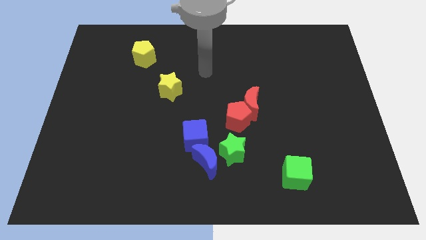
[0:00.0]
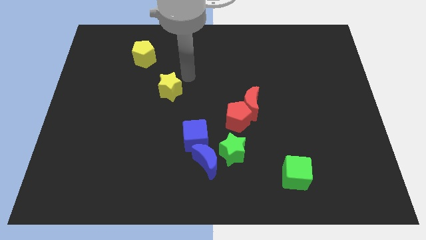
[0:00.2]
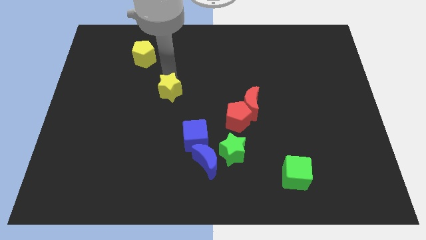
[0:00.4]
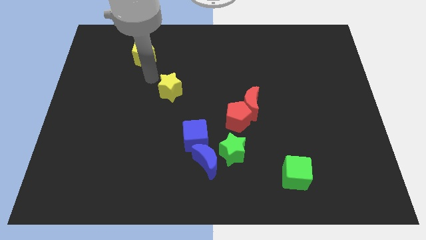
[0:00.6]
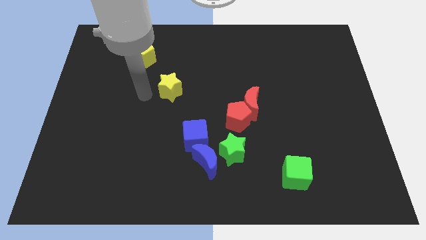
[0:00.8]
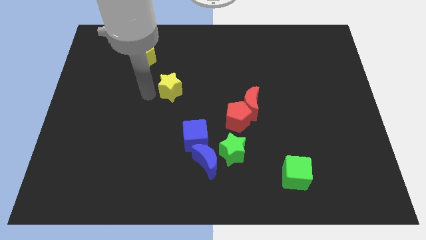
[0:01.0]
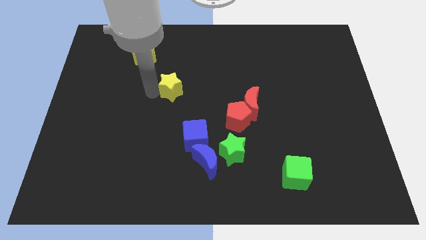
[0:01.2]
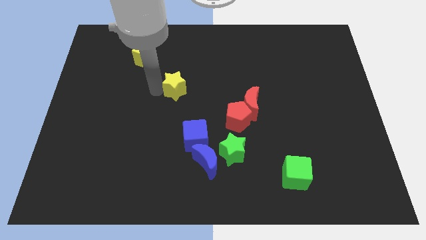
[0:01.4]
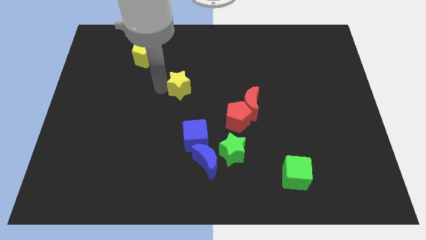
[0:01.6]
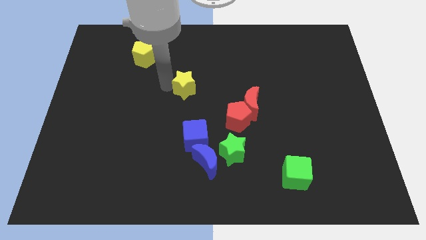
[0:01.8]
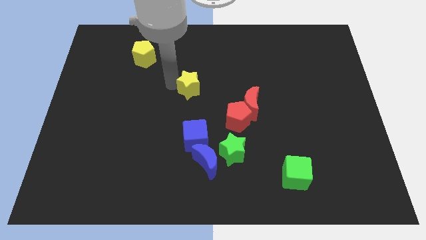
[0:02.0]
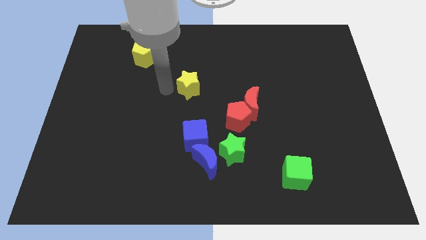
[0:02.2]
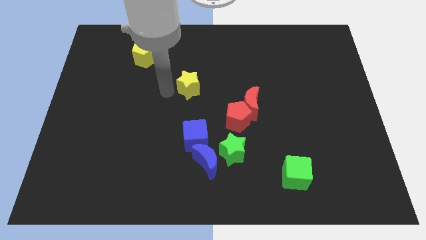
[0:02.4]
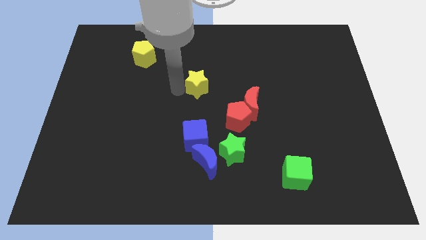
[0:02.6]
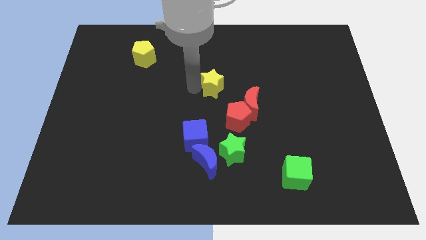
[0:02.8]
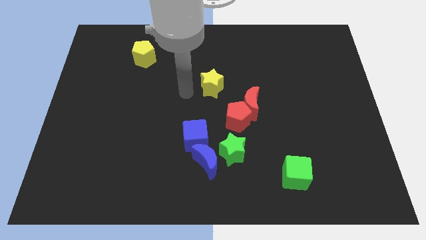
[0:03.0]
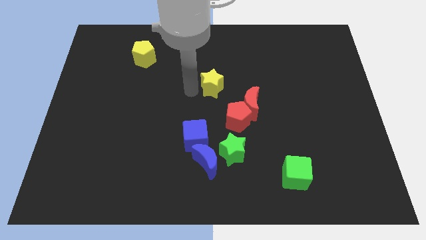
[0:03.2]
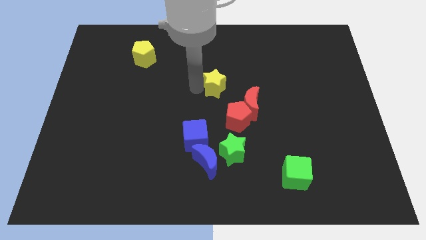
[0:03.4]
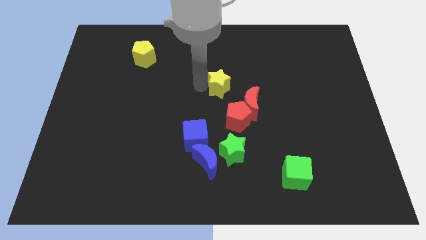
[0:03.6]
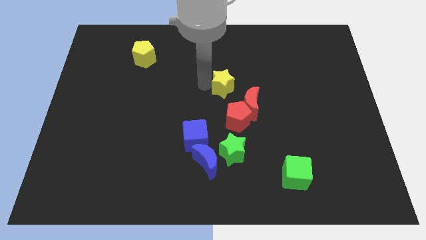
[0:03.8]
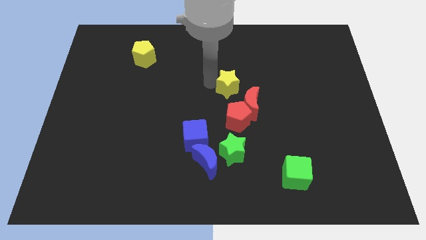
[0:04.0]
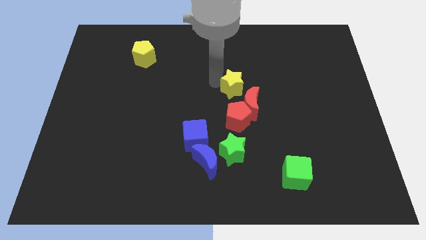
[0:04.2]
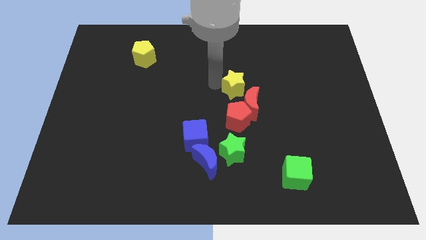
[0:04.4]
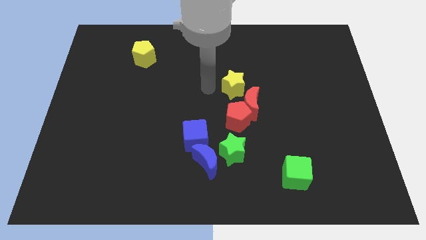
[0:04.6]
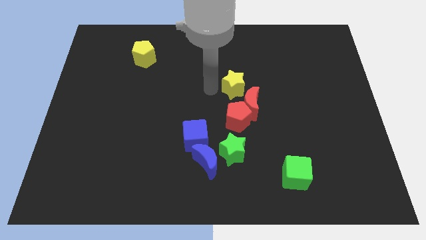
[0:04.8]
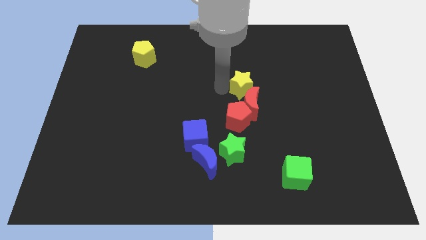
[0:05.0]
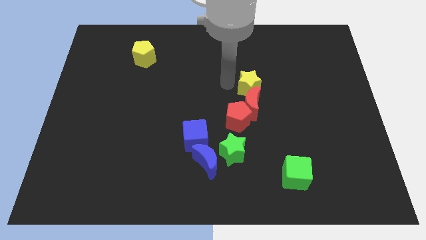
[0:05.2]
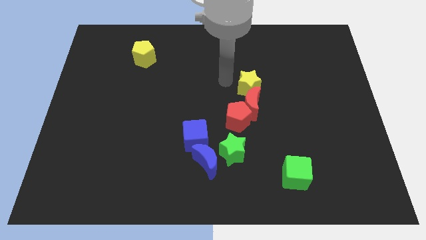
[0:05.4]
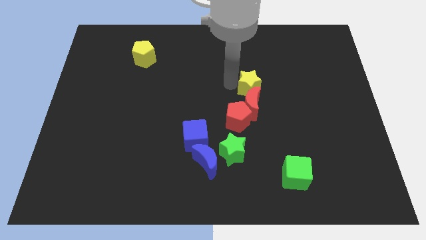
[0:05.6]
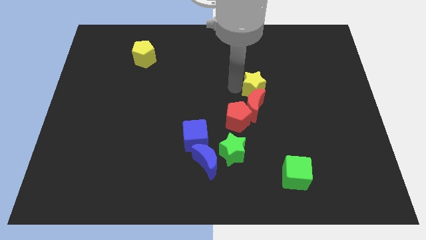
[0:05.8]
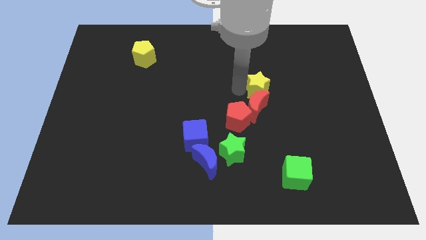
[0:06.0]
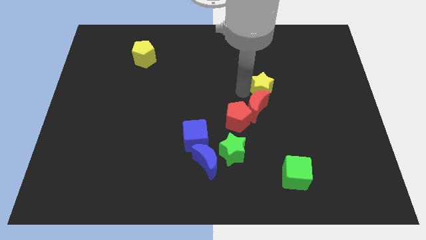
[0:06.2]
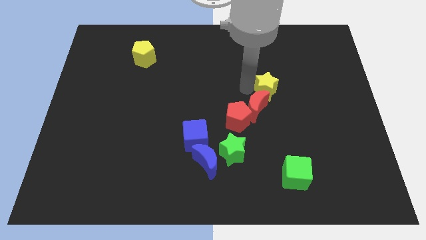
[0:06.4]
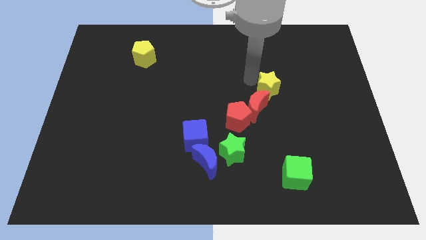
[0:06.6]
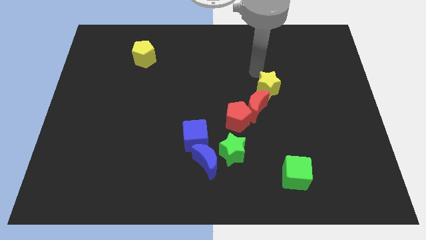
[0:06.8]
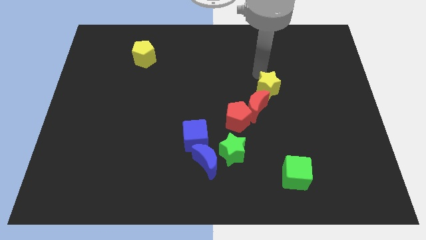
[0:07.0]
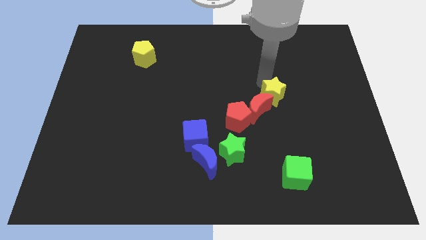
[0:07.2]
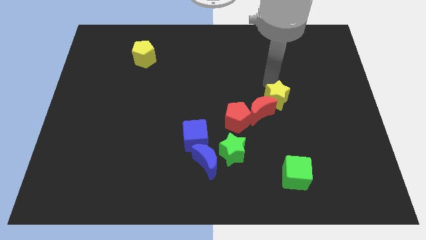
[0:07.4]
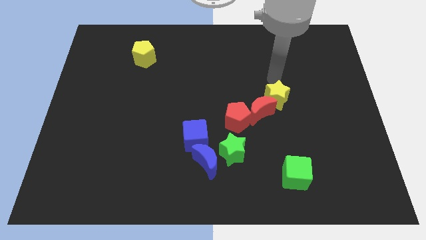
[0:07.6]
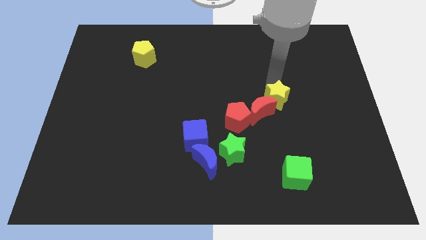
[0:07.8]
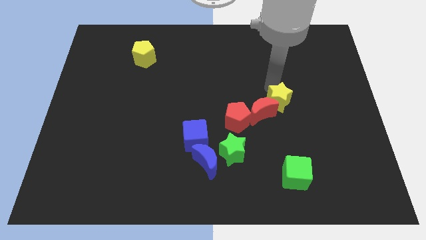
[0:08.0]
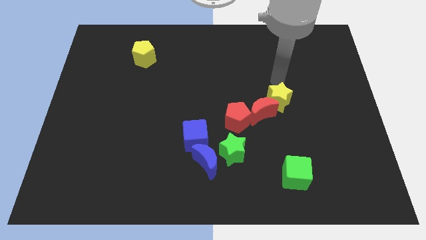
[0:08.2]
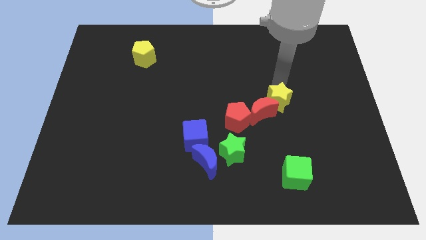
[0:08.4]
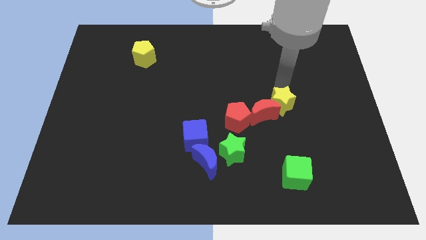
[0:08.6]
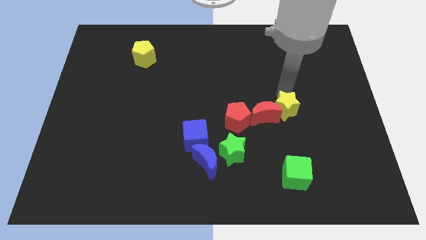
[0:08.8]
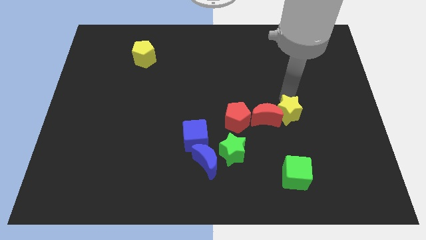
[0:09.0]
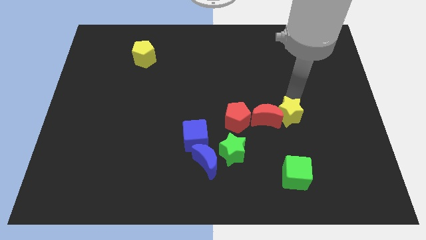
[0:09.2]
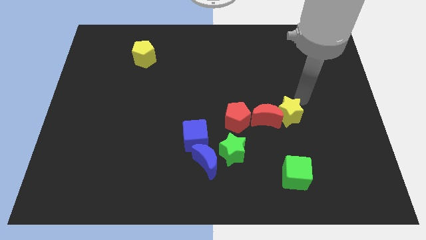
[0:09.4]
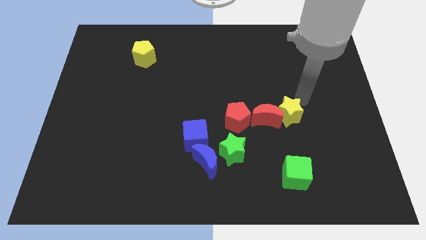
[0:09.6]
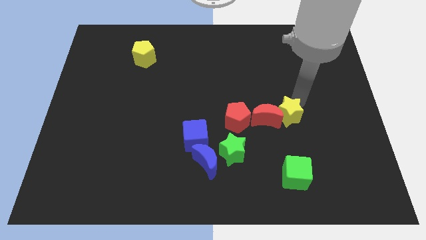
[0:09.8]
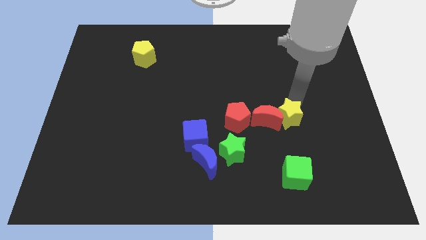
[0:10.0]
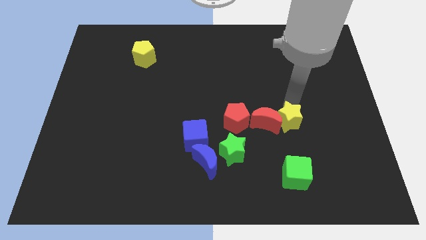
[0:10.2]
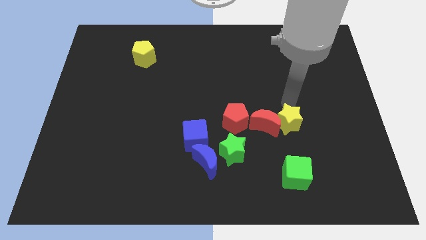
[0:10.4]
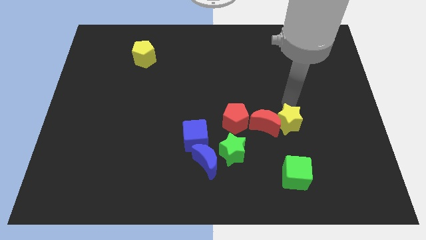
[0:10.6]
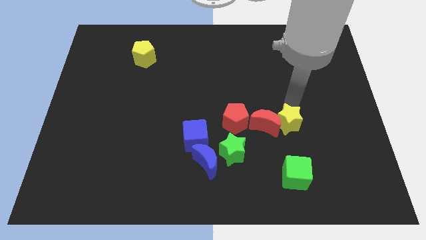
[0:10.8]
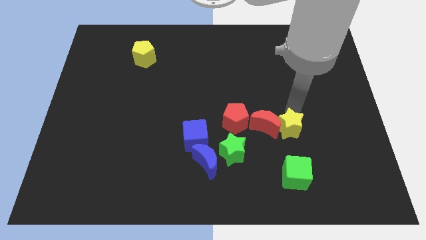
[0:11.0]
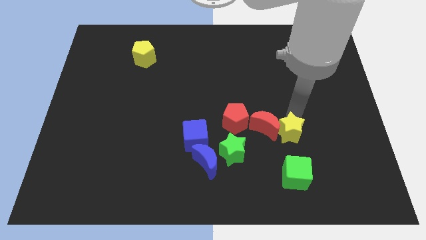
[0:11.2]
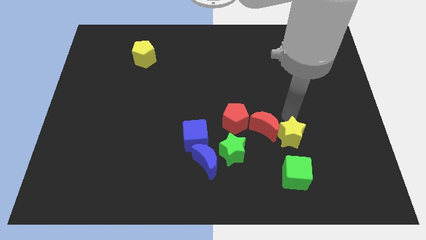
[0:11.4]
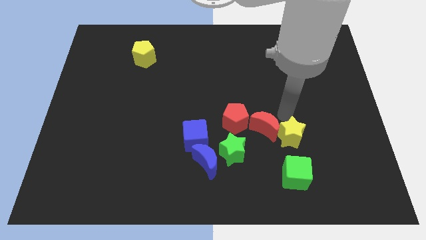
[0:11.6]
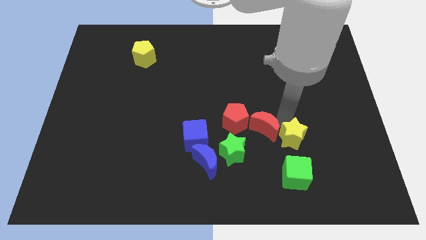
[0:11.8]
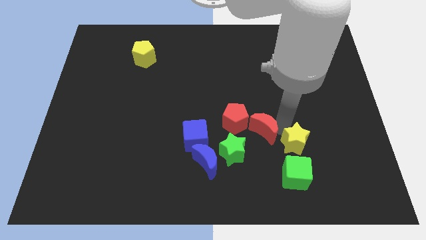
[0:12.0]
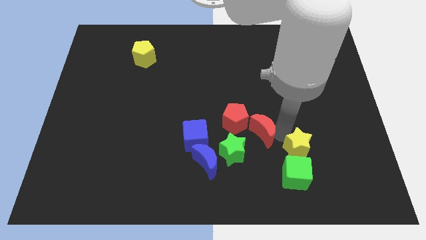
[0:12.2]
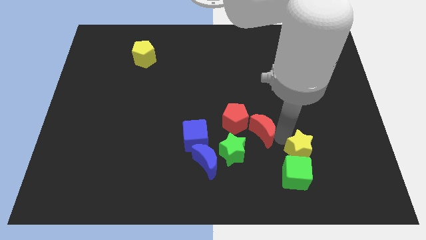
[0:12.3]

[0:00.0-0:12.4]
slide the yellow star next to the green cube

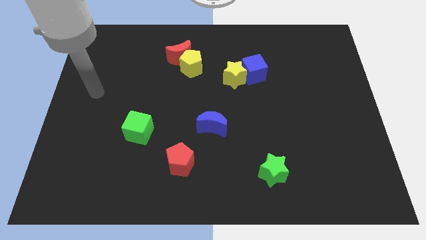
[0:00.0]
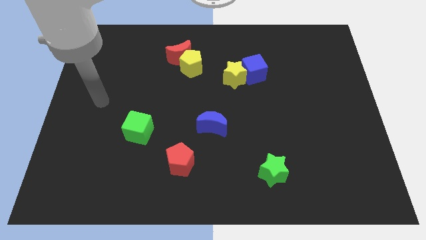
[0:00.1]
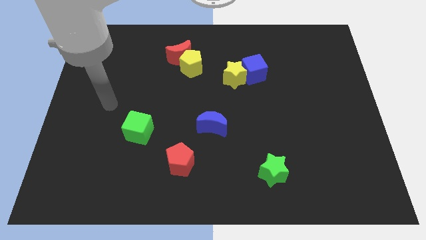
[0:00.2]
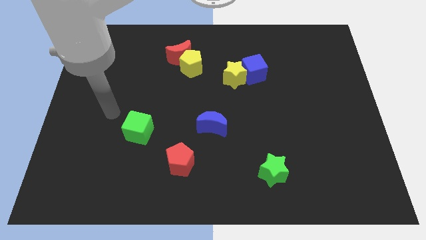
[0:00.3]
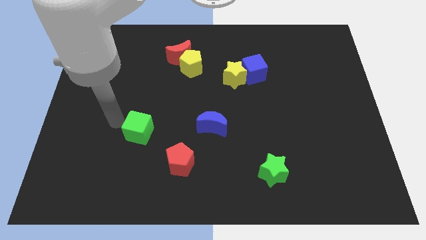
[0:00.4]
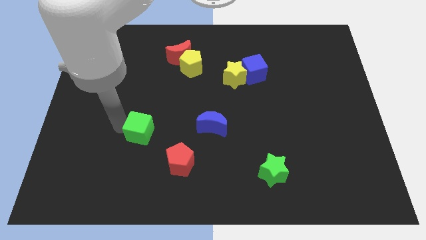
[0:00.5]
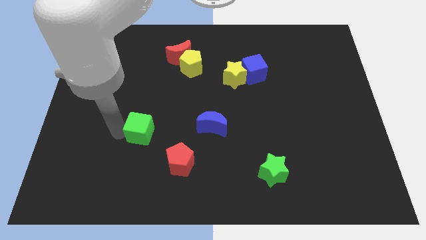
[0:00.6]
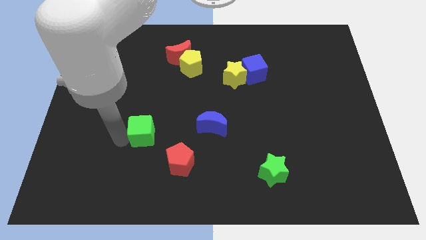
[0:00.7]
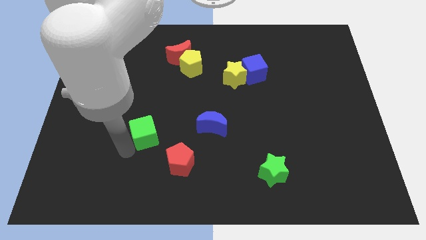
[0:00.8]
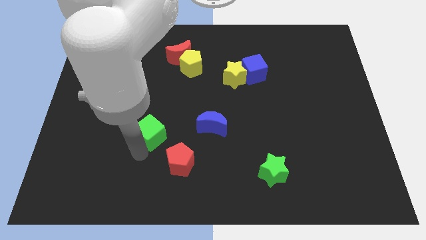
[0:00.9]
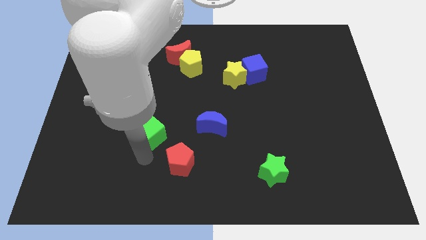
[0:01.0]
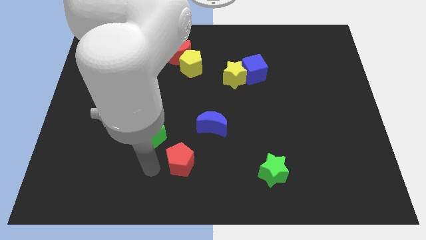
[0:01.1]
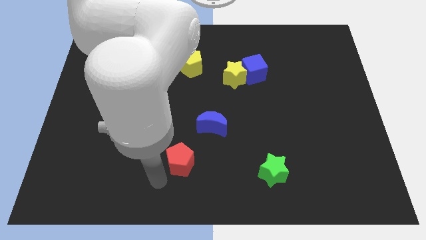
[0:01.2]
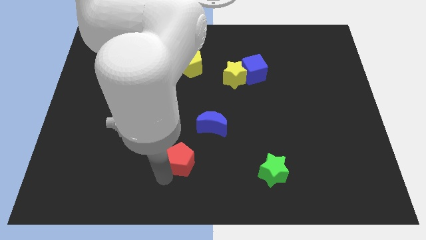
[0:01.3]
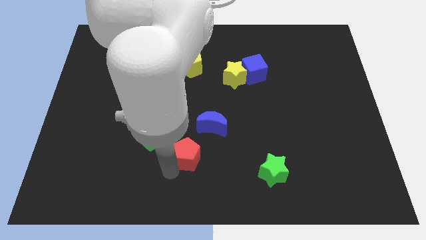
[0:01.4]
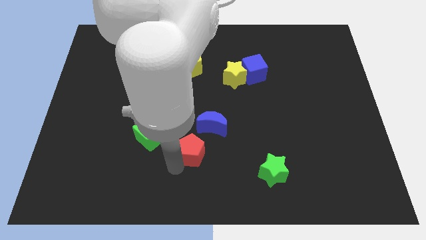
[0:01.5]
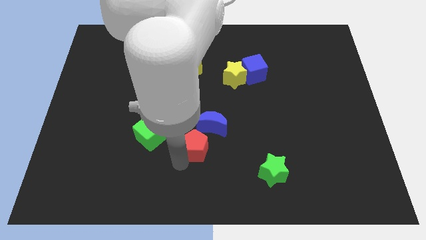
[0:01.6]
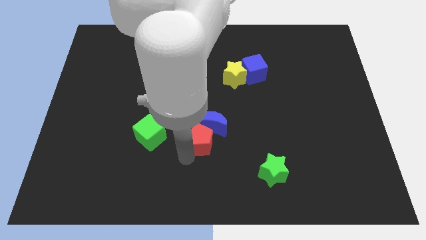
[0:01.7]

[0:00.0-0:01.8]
put the red pentagon towards the blue moon
